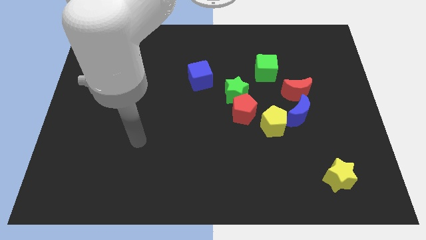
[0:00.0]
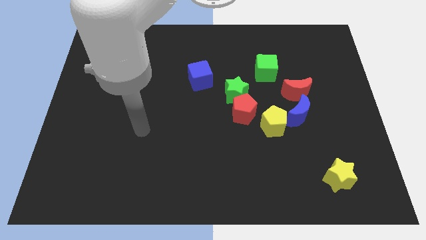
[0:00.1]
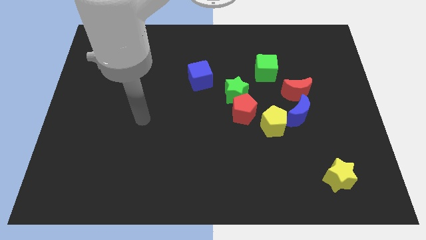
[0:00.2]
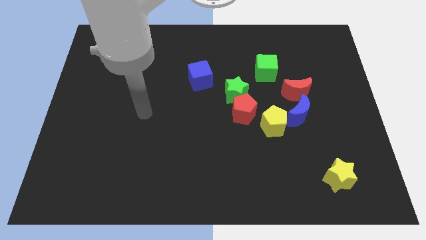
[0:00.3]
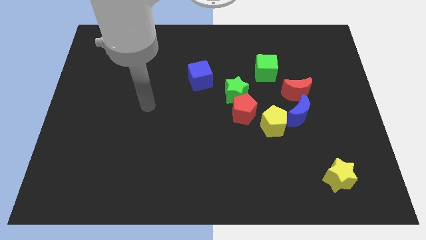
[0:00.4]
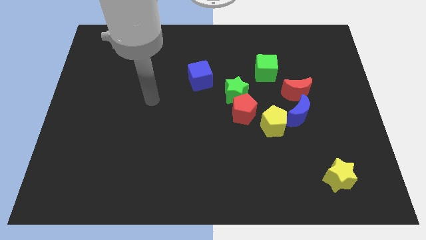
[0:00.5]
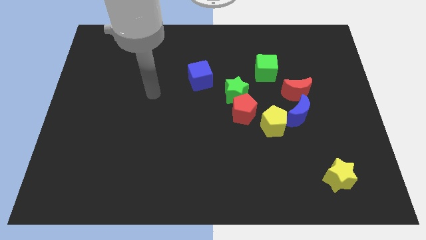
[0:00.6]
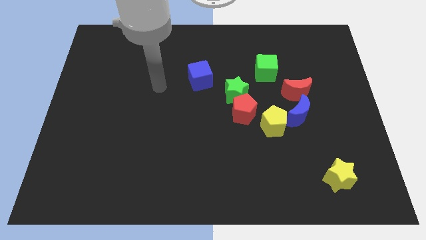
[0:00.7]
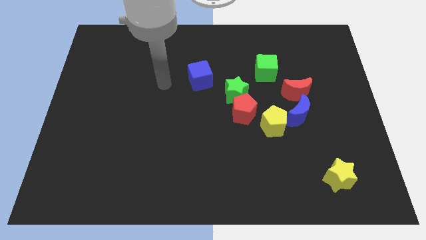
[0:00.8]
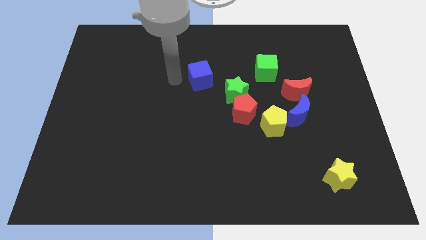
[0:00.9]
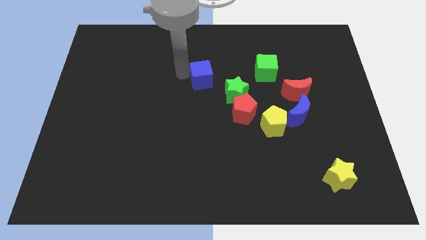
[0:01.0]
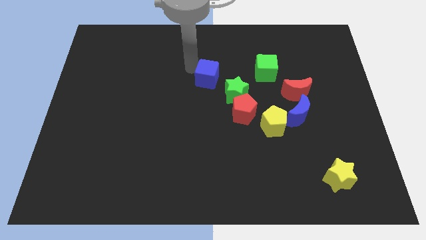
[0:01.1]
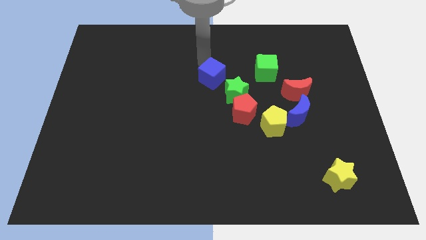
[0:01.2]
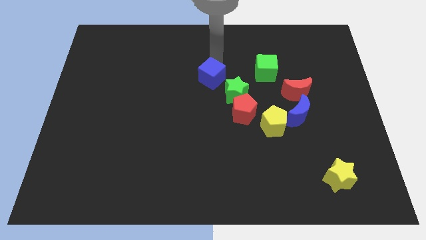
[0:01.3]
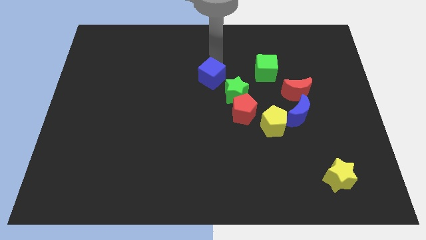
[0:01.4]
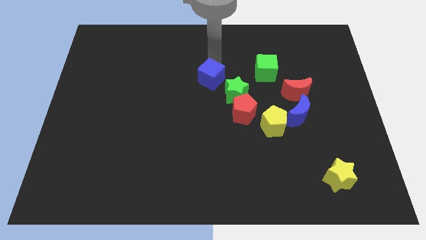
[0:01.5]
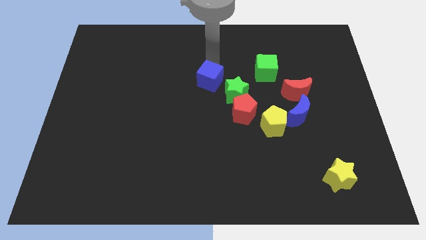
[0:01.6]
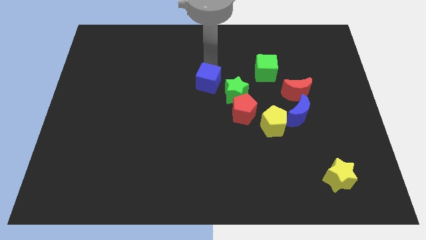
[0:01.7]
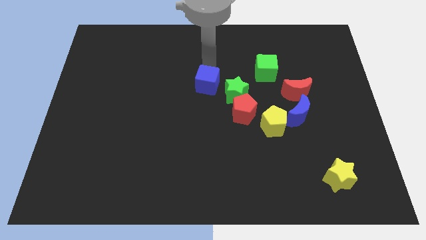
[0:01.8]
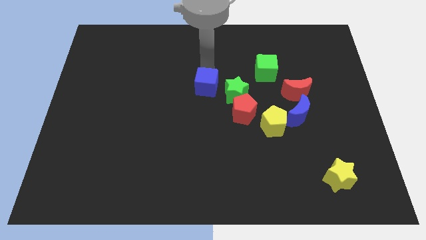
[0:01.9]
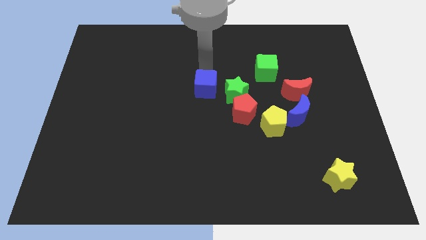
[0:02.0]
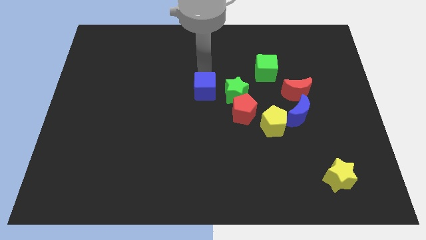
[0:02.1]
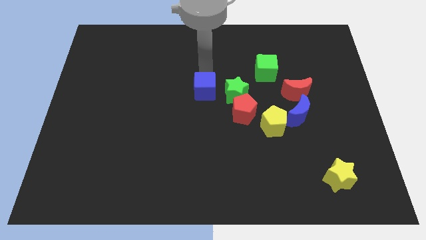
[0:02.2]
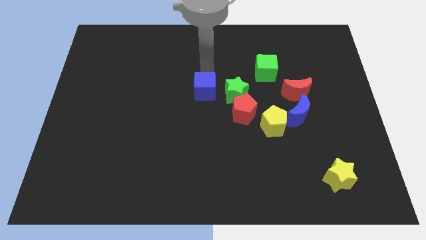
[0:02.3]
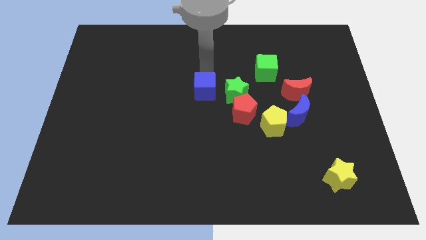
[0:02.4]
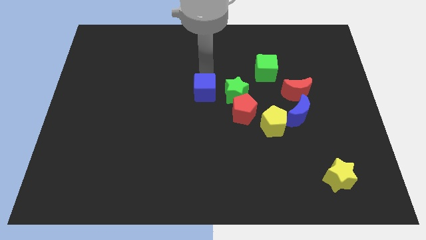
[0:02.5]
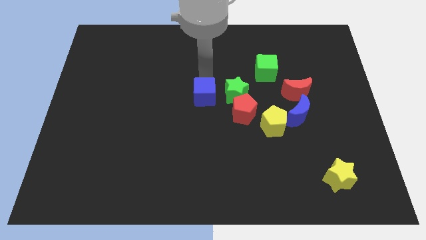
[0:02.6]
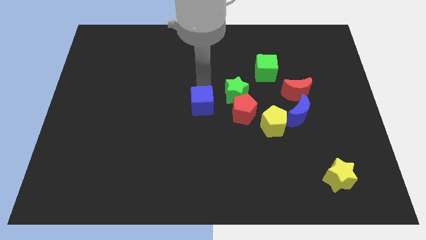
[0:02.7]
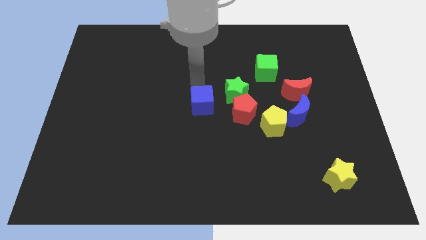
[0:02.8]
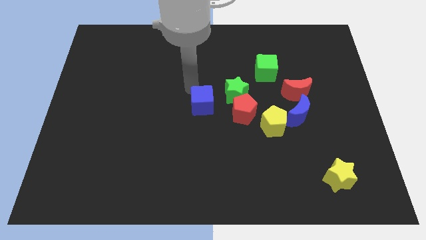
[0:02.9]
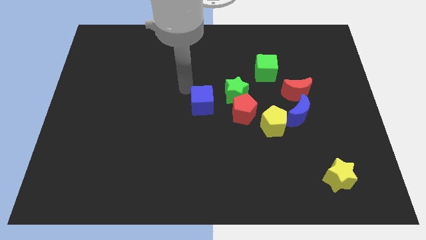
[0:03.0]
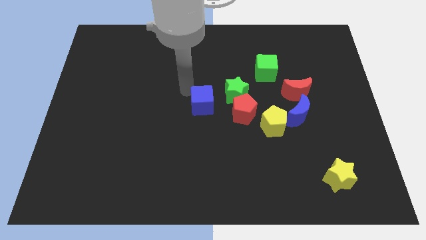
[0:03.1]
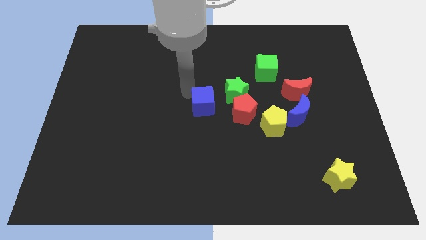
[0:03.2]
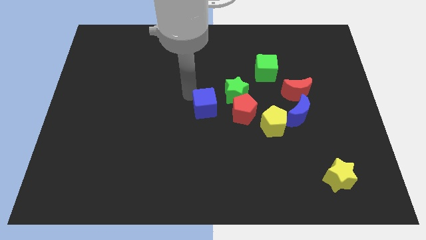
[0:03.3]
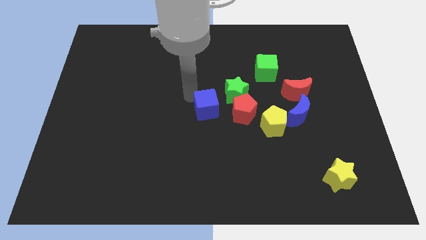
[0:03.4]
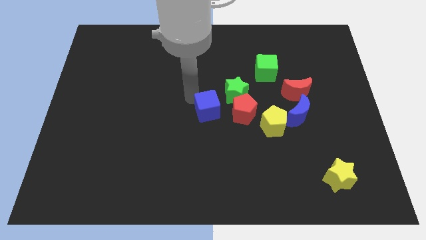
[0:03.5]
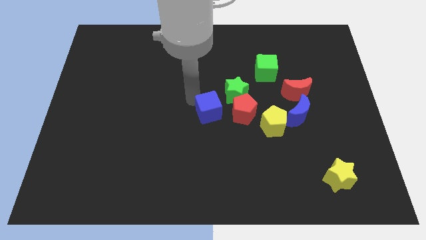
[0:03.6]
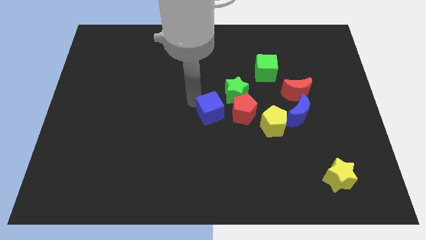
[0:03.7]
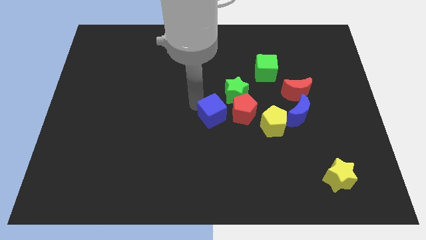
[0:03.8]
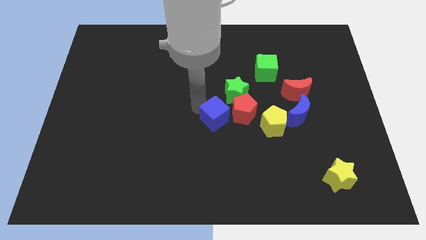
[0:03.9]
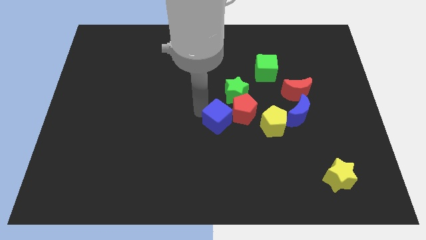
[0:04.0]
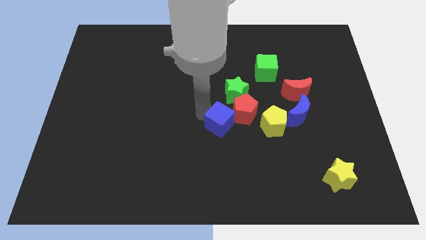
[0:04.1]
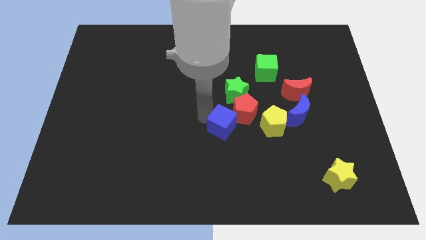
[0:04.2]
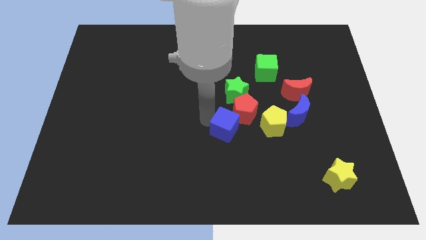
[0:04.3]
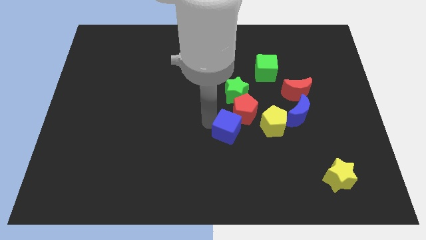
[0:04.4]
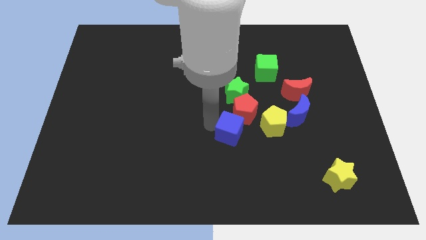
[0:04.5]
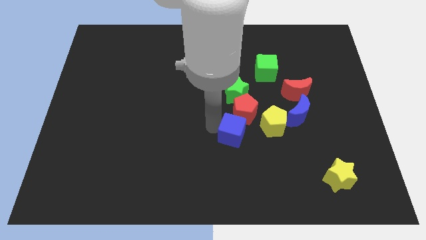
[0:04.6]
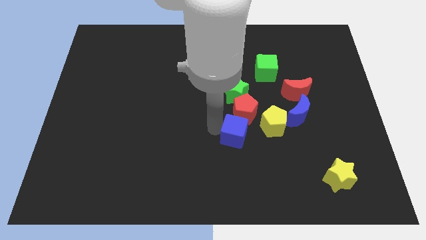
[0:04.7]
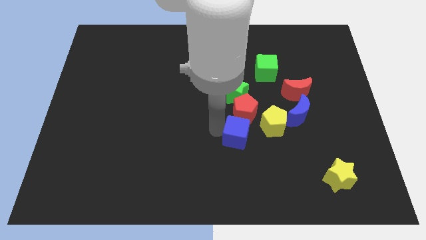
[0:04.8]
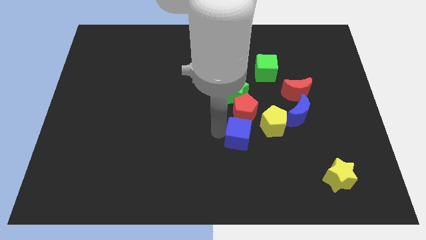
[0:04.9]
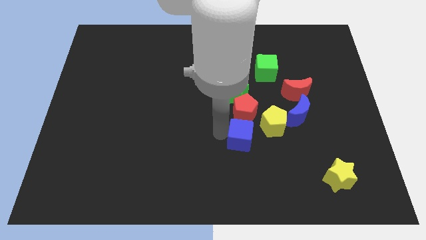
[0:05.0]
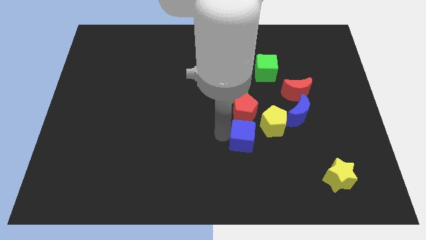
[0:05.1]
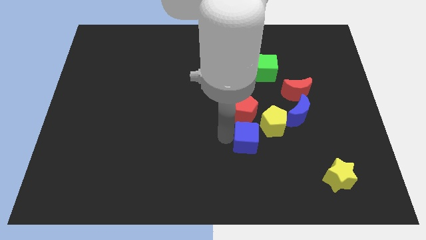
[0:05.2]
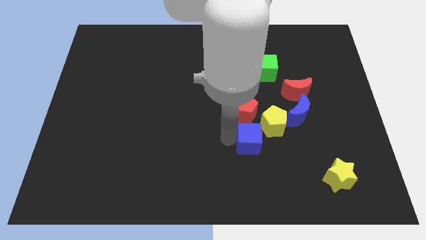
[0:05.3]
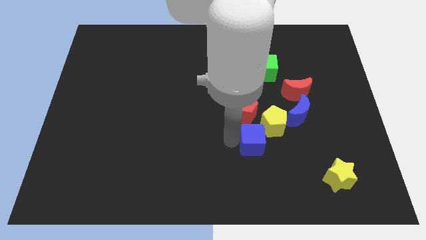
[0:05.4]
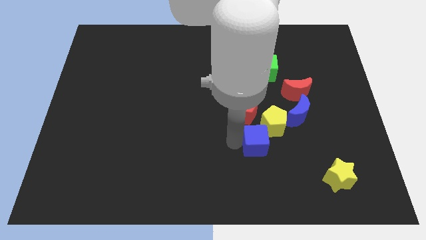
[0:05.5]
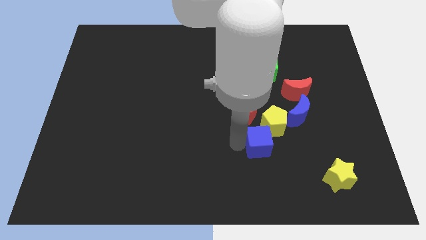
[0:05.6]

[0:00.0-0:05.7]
push the blue cube to the yellow pentagon

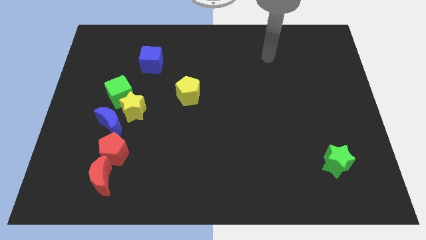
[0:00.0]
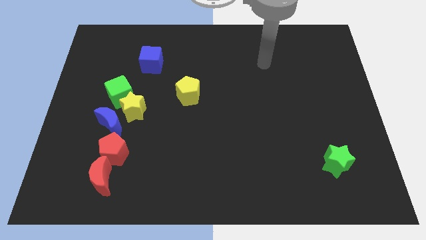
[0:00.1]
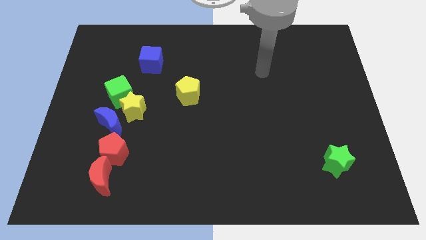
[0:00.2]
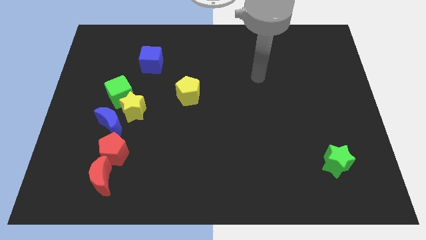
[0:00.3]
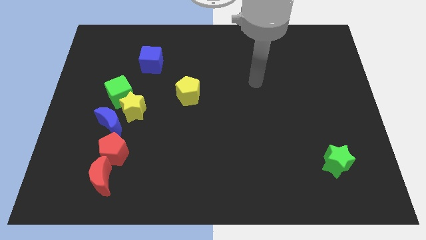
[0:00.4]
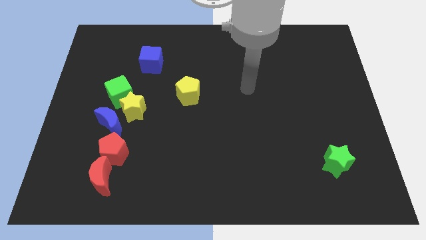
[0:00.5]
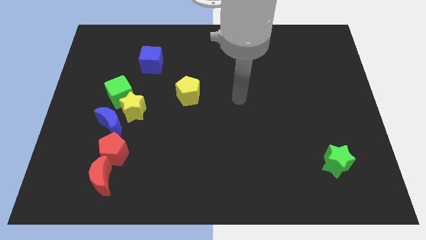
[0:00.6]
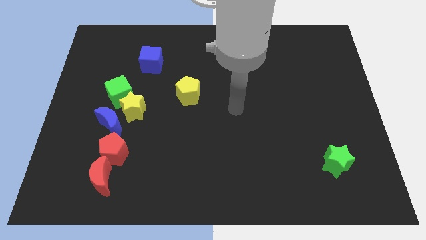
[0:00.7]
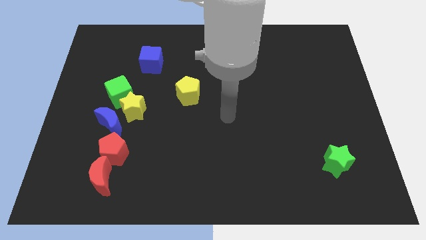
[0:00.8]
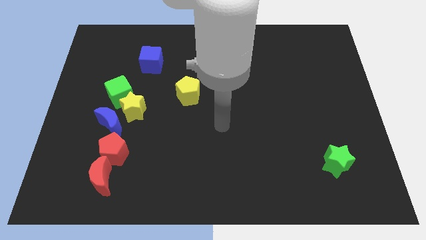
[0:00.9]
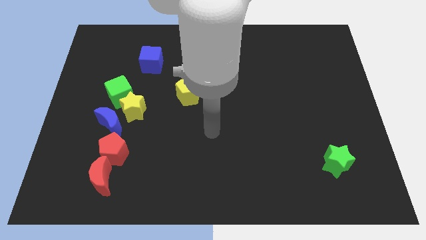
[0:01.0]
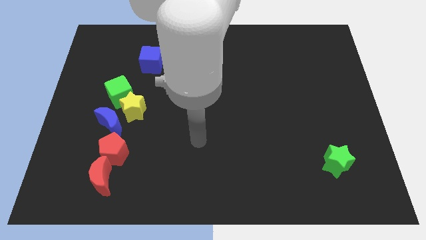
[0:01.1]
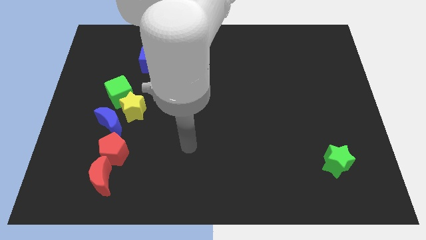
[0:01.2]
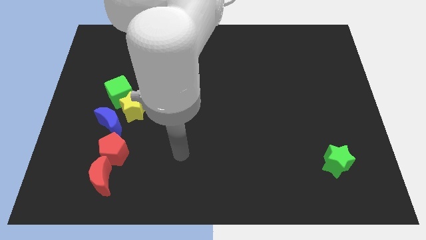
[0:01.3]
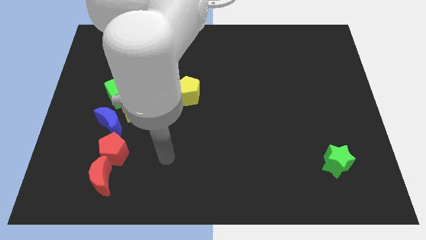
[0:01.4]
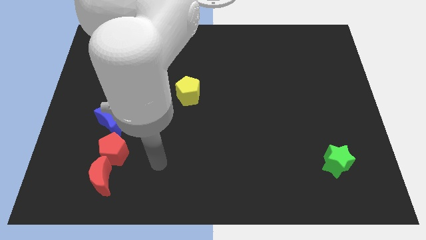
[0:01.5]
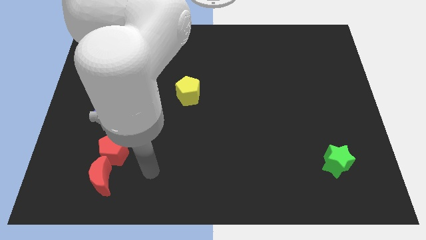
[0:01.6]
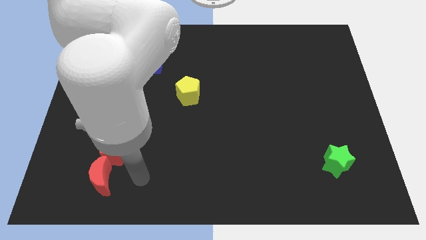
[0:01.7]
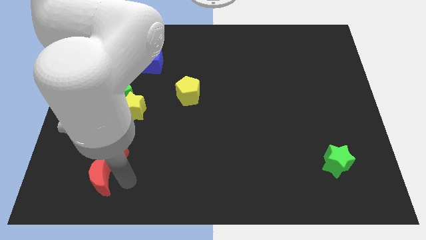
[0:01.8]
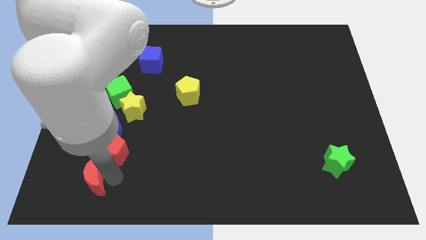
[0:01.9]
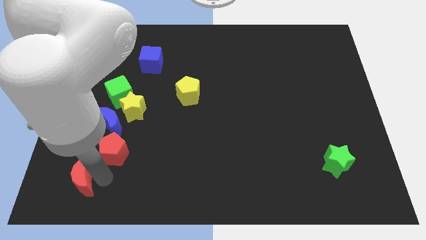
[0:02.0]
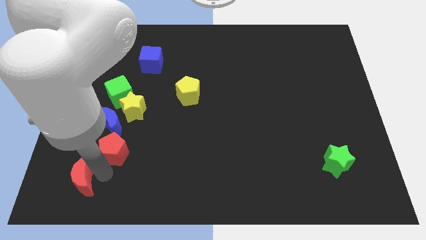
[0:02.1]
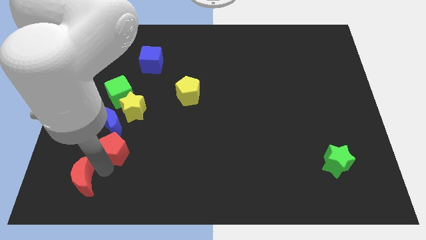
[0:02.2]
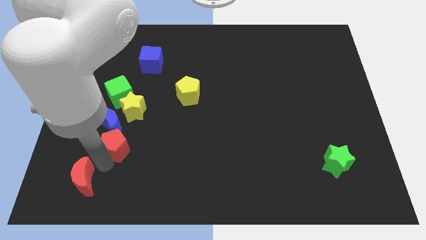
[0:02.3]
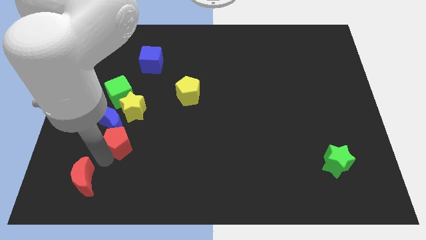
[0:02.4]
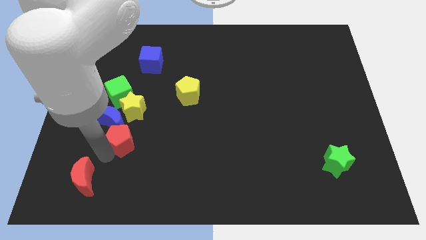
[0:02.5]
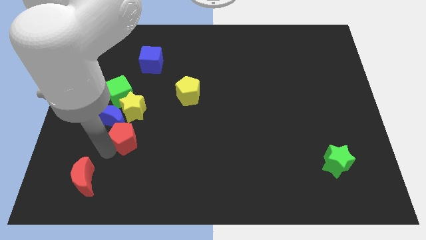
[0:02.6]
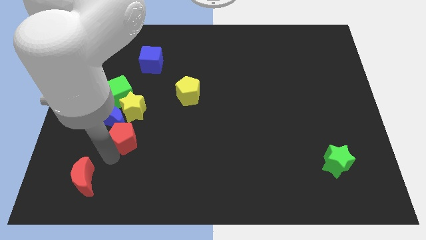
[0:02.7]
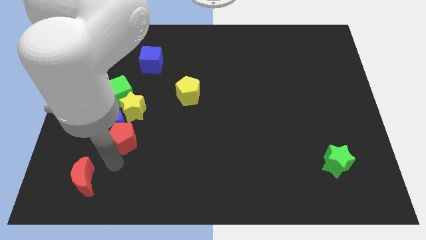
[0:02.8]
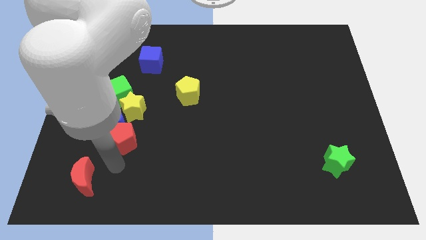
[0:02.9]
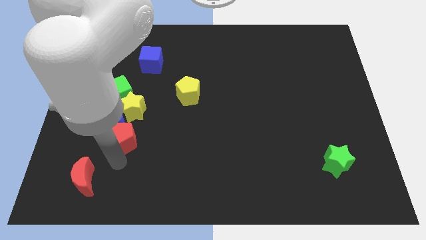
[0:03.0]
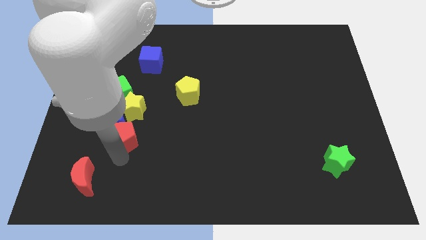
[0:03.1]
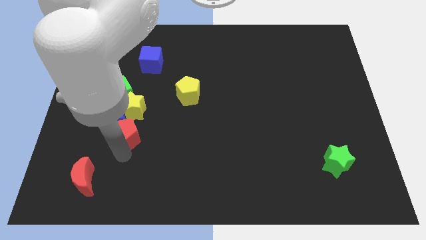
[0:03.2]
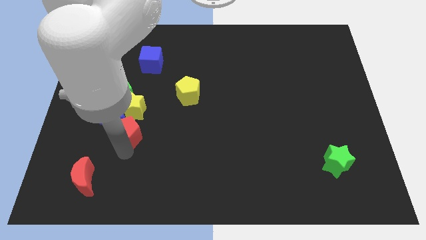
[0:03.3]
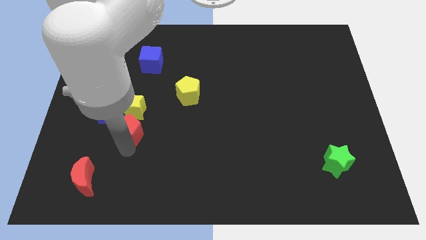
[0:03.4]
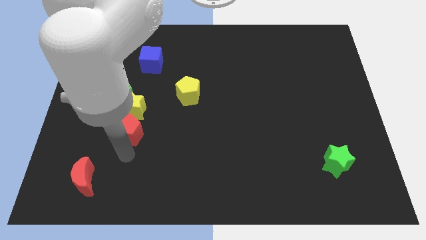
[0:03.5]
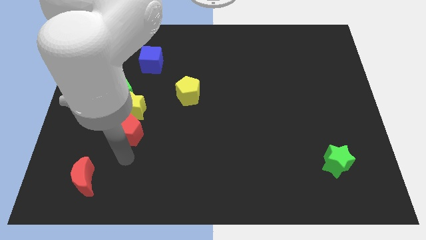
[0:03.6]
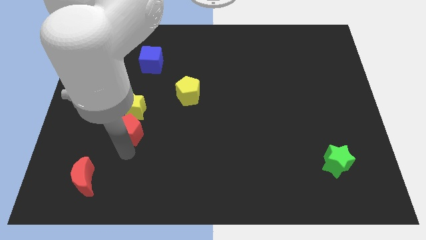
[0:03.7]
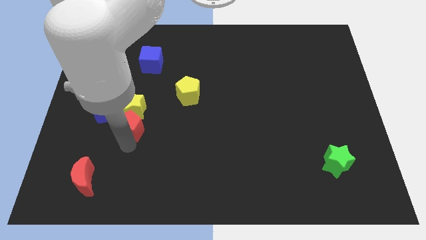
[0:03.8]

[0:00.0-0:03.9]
move the red pentagon next to the yellow star
